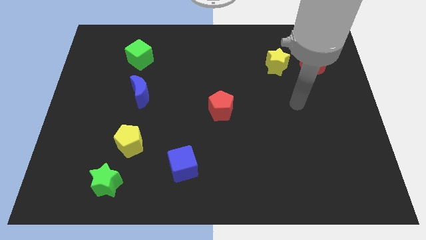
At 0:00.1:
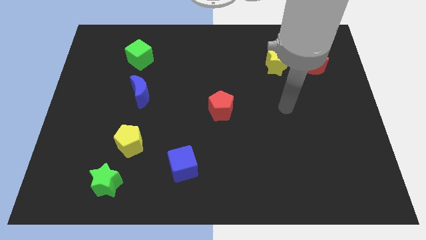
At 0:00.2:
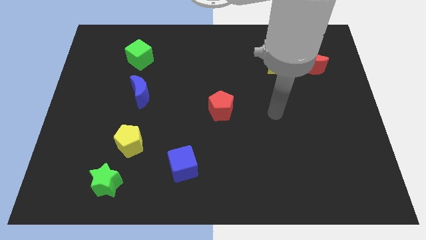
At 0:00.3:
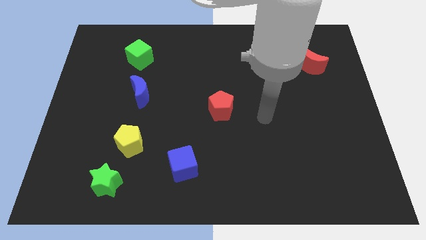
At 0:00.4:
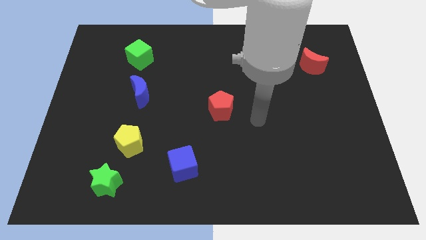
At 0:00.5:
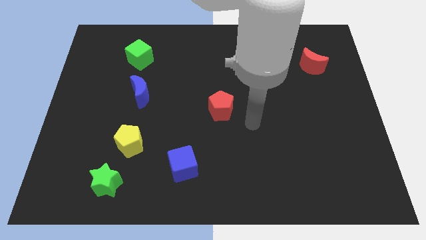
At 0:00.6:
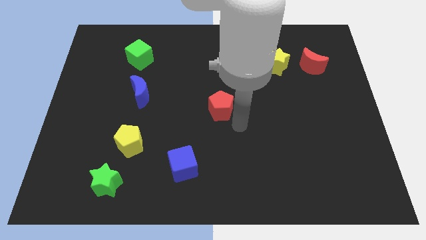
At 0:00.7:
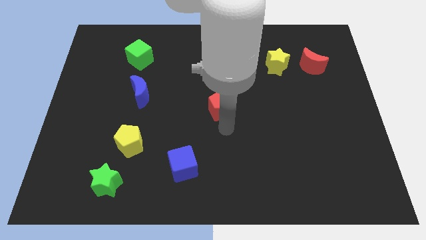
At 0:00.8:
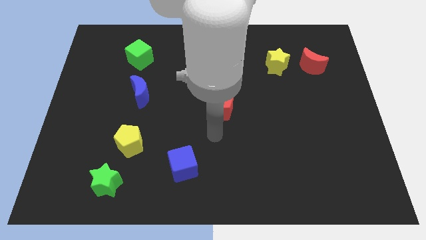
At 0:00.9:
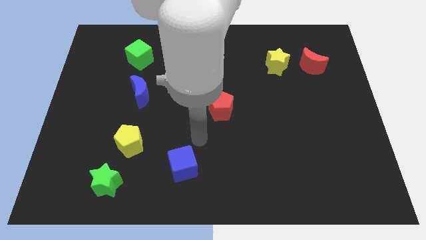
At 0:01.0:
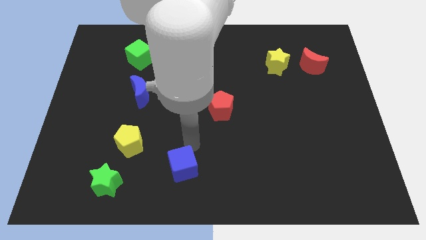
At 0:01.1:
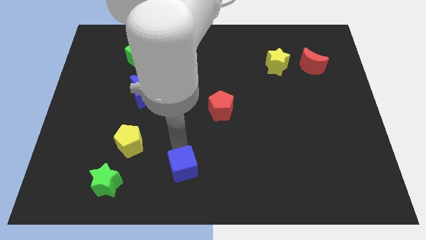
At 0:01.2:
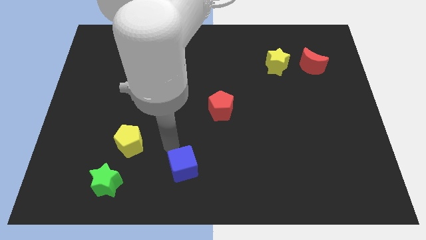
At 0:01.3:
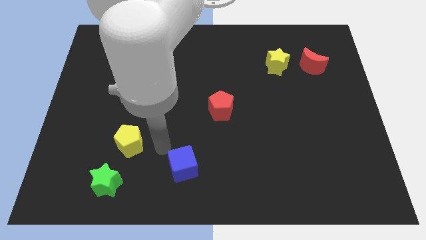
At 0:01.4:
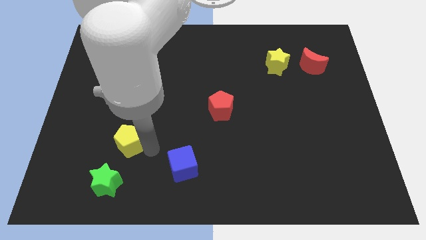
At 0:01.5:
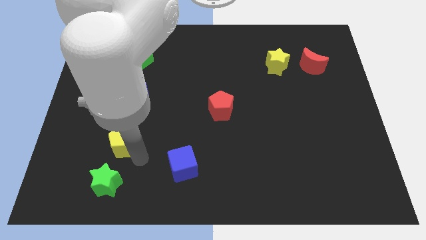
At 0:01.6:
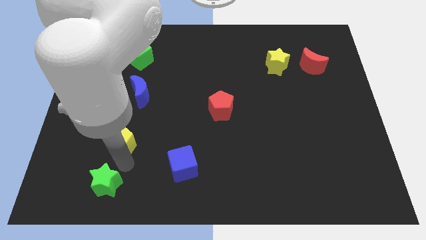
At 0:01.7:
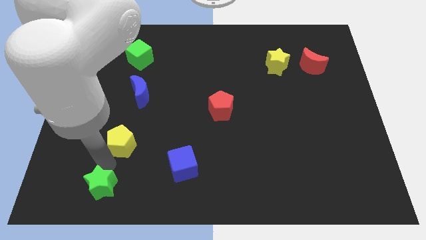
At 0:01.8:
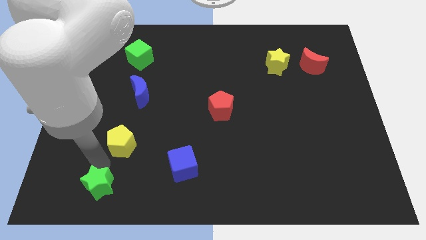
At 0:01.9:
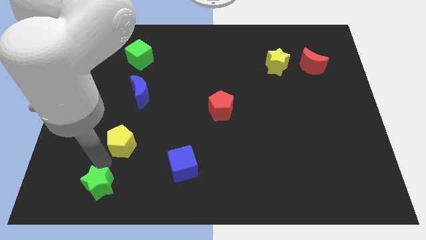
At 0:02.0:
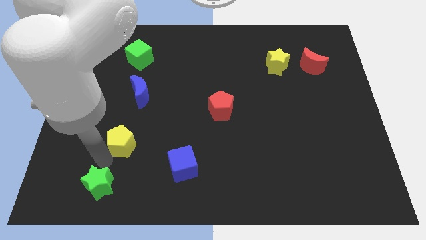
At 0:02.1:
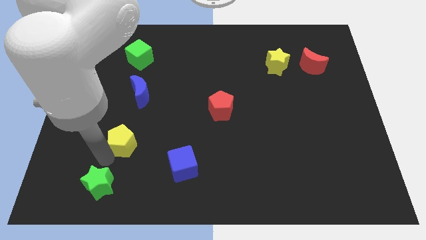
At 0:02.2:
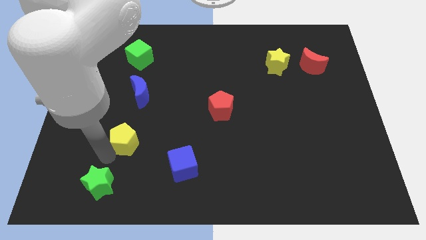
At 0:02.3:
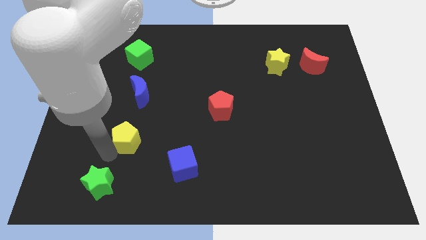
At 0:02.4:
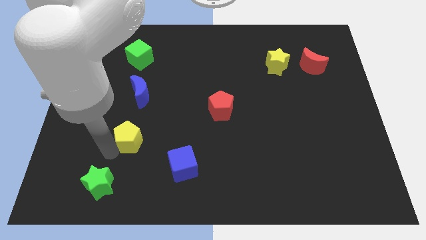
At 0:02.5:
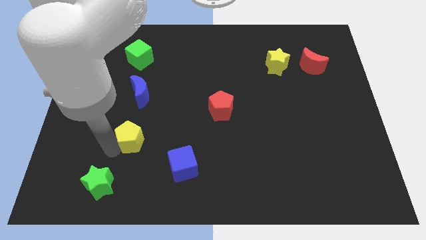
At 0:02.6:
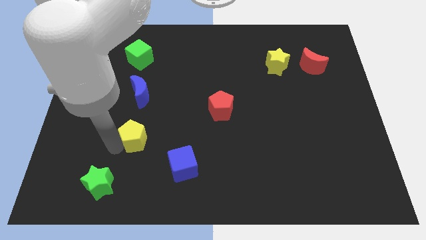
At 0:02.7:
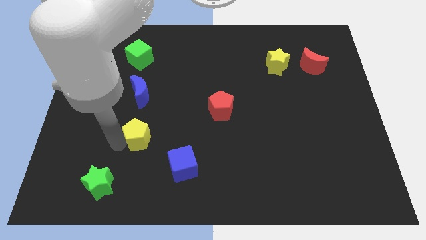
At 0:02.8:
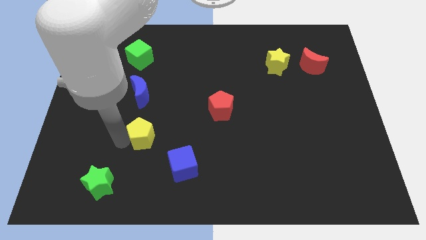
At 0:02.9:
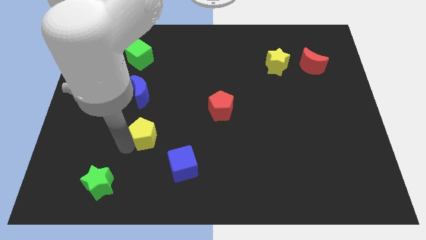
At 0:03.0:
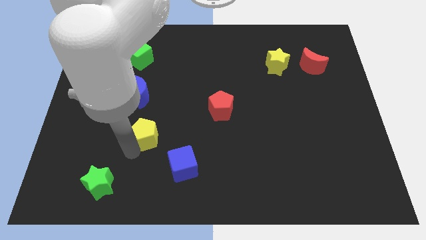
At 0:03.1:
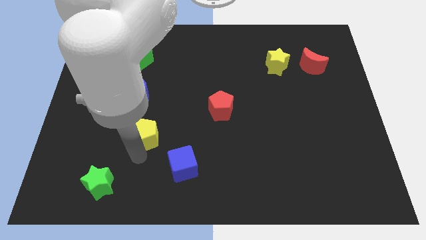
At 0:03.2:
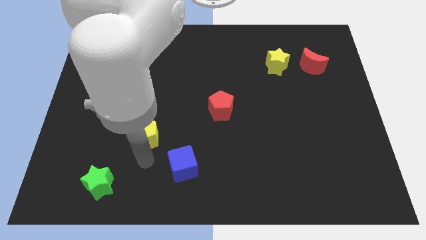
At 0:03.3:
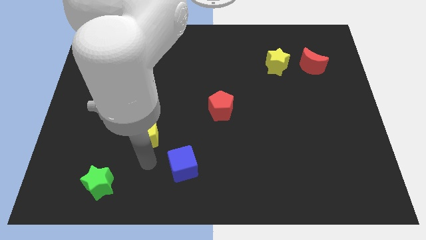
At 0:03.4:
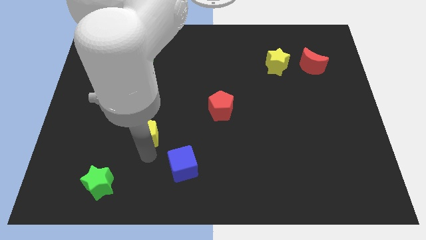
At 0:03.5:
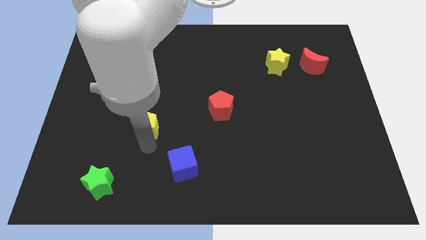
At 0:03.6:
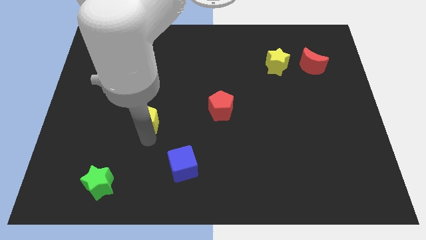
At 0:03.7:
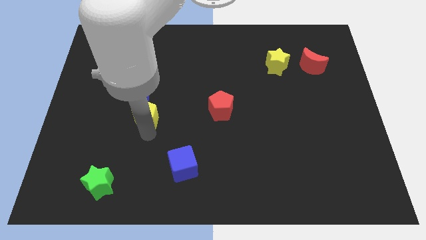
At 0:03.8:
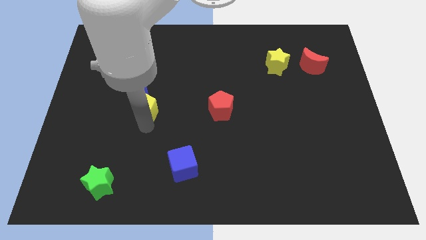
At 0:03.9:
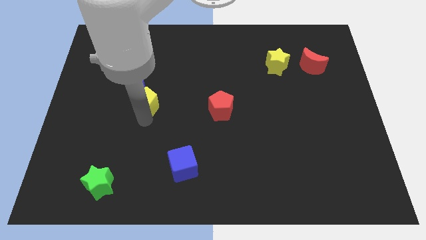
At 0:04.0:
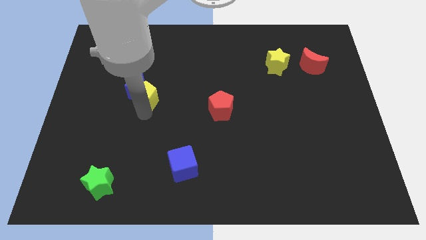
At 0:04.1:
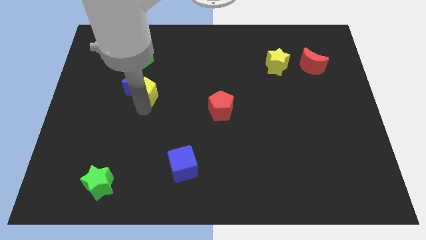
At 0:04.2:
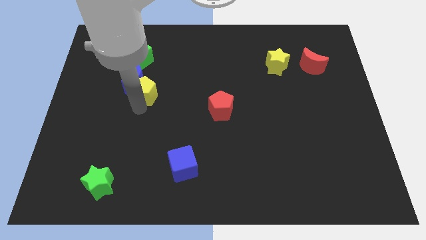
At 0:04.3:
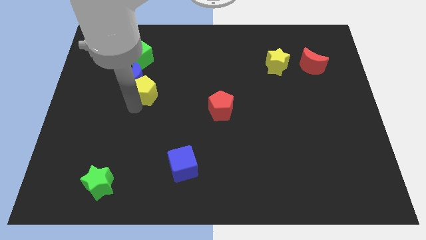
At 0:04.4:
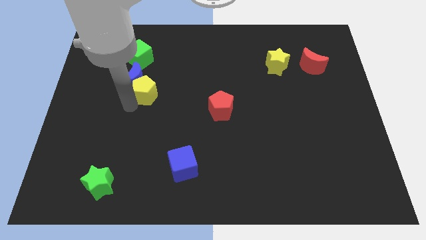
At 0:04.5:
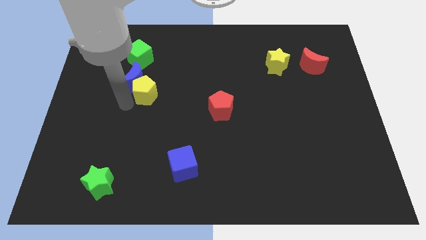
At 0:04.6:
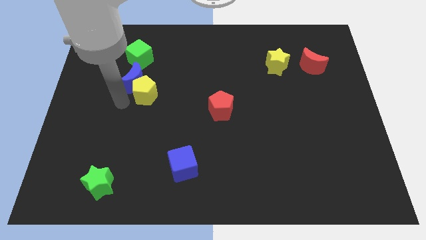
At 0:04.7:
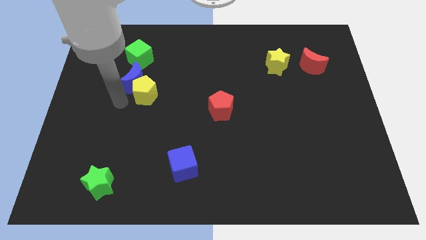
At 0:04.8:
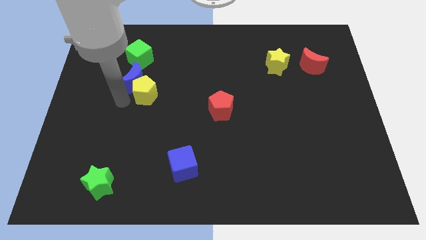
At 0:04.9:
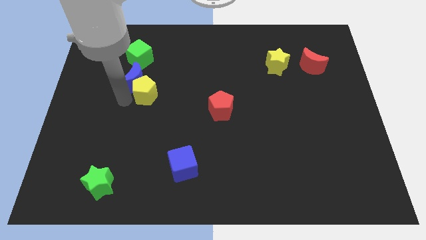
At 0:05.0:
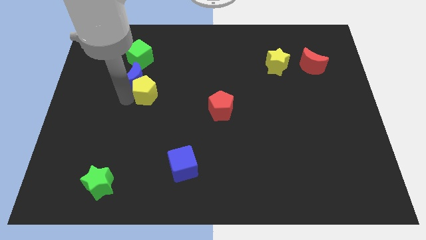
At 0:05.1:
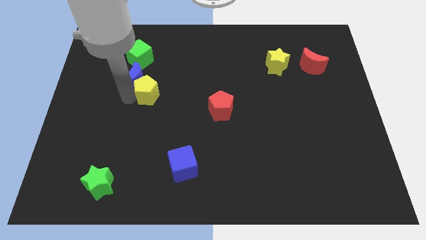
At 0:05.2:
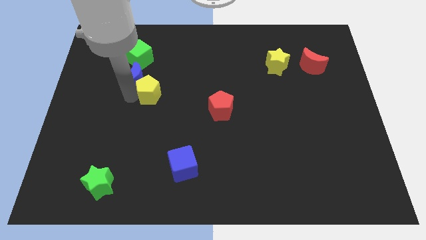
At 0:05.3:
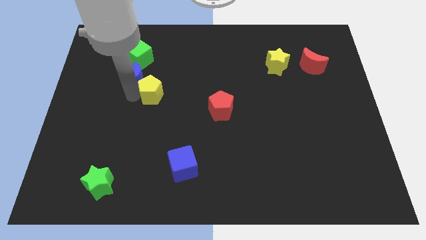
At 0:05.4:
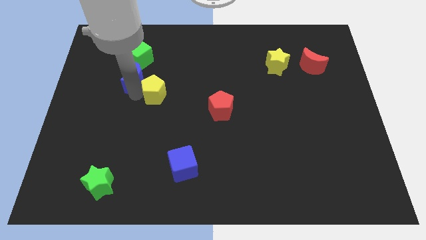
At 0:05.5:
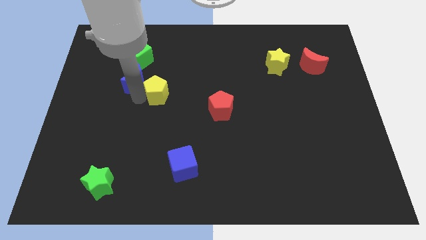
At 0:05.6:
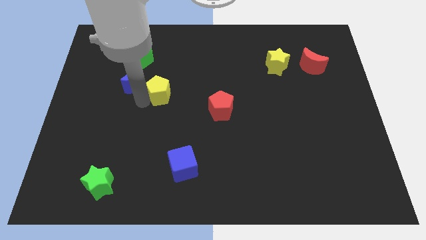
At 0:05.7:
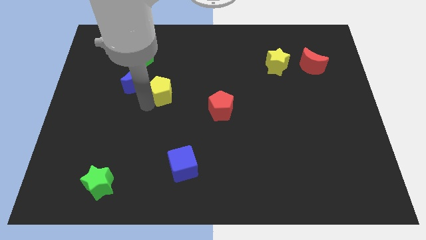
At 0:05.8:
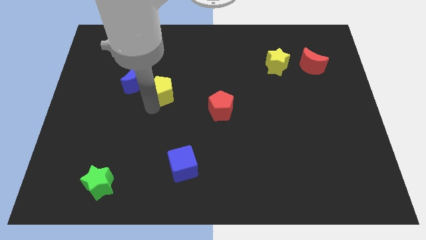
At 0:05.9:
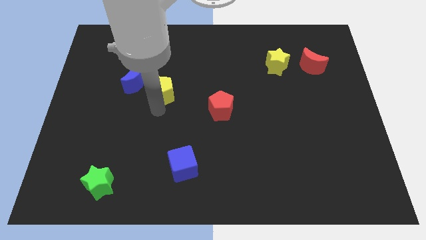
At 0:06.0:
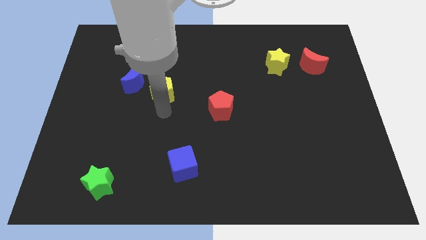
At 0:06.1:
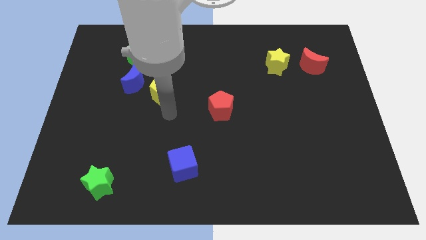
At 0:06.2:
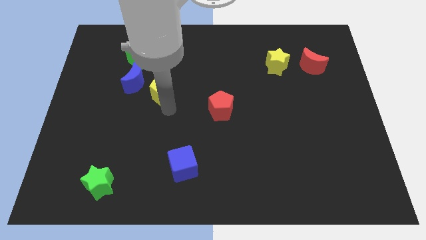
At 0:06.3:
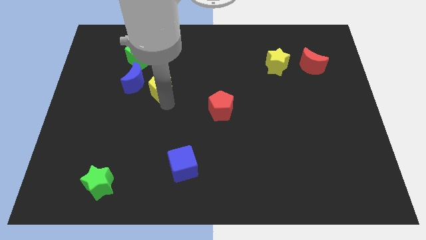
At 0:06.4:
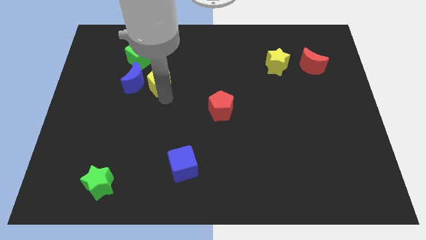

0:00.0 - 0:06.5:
slide the yellow pentagon diagonally down and to the right of the green cube

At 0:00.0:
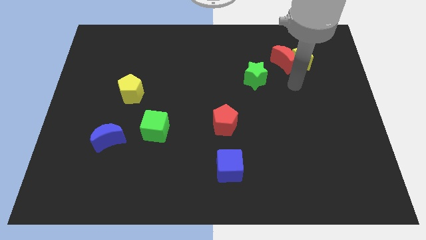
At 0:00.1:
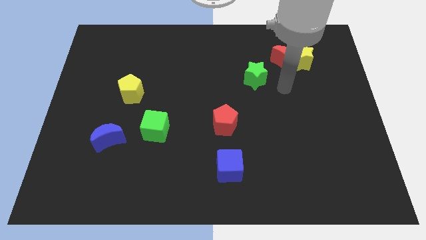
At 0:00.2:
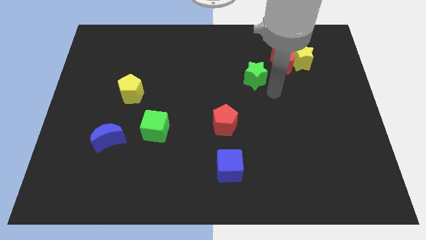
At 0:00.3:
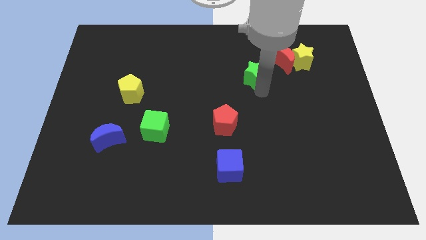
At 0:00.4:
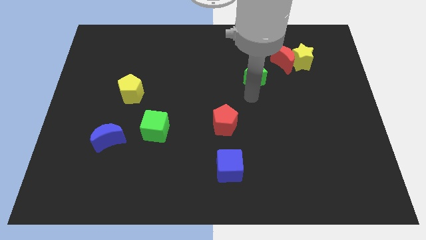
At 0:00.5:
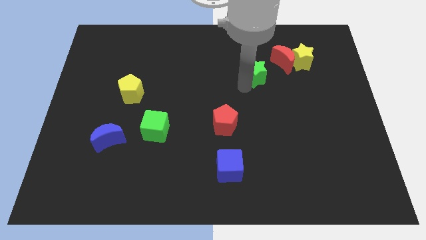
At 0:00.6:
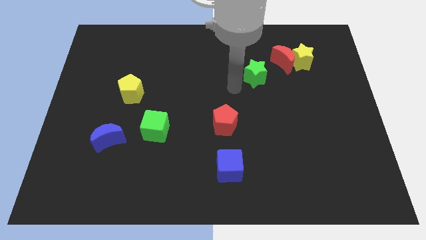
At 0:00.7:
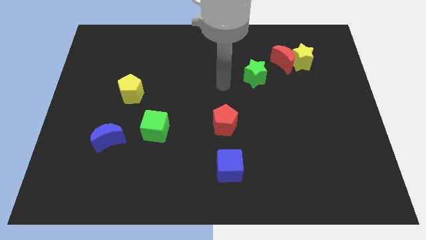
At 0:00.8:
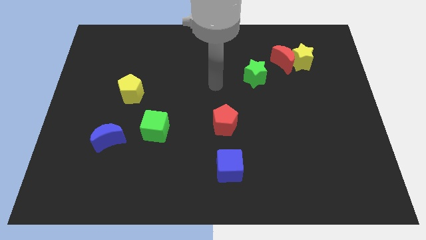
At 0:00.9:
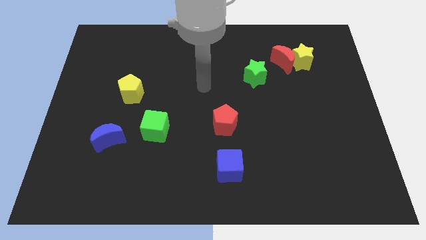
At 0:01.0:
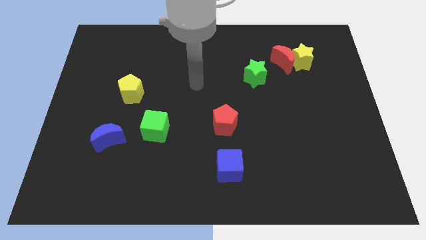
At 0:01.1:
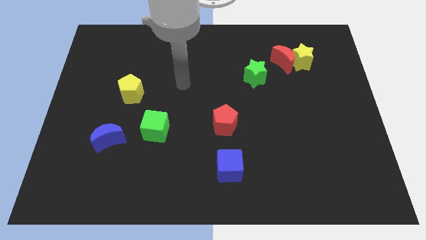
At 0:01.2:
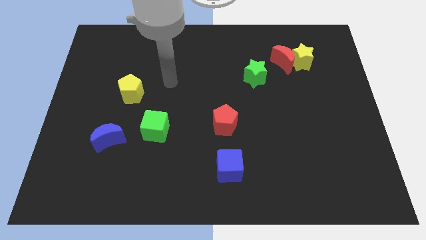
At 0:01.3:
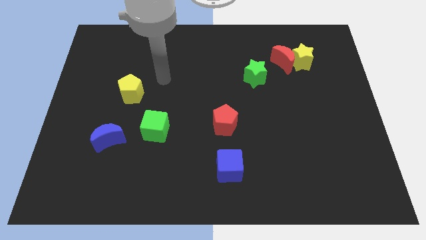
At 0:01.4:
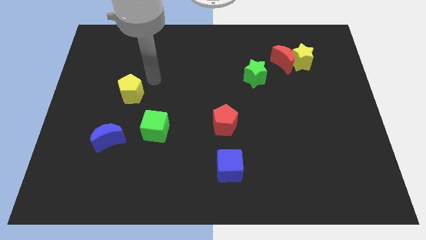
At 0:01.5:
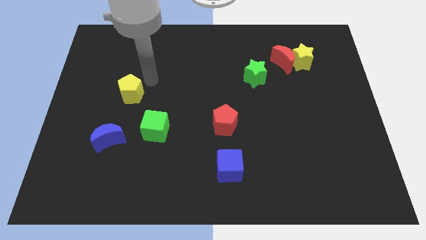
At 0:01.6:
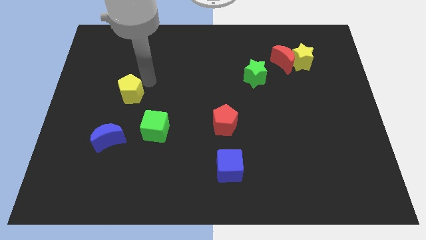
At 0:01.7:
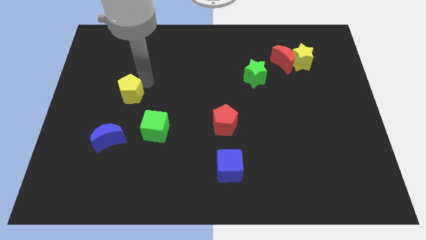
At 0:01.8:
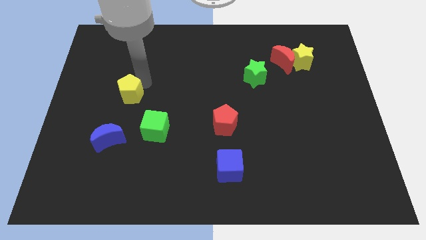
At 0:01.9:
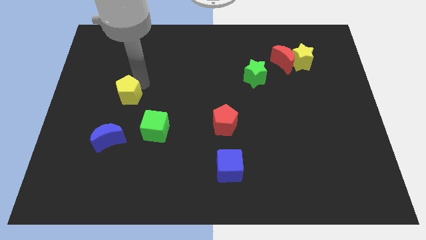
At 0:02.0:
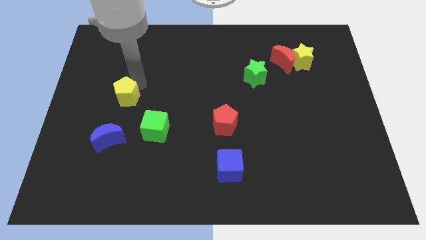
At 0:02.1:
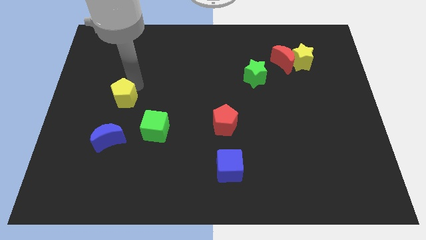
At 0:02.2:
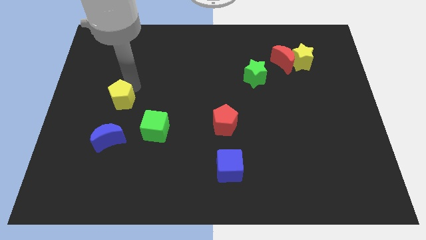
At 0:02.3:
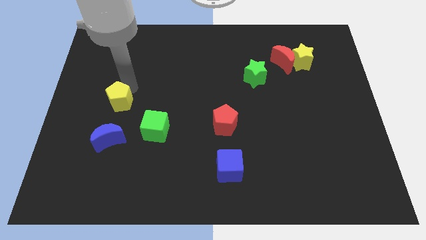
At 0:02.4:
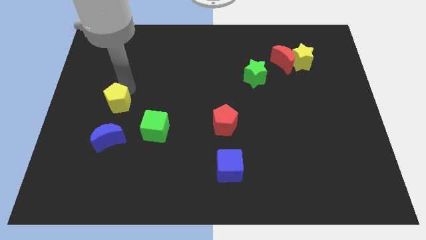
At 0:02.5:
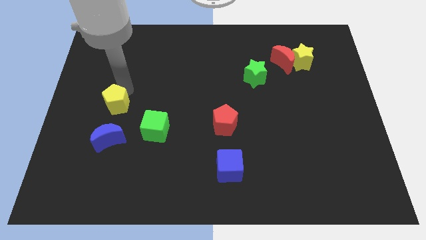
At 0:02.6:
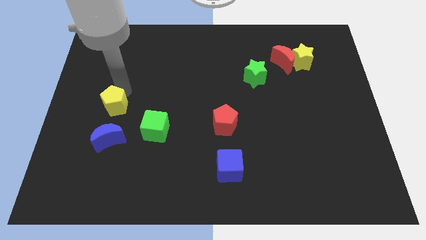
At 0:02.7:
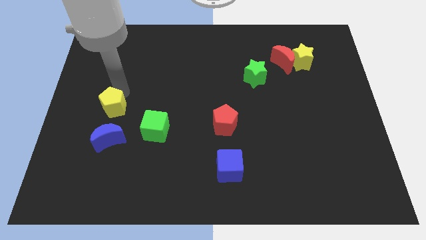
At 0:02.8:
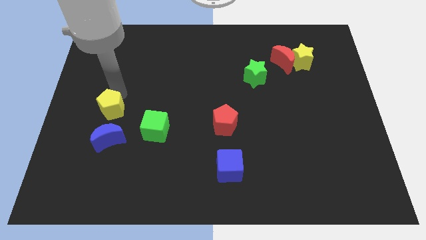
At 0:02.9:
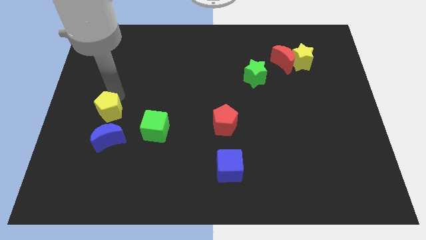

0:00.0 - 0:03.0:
slide the yellow pentagon to the top left of the blue moon
